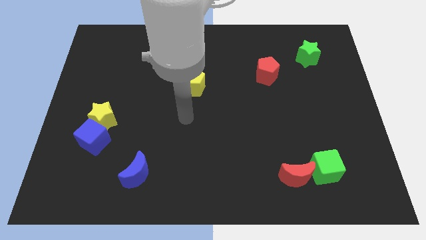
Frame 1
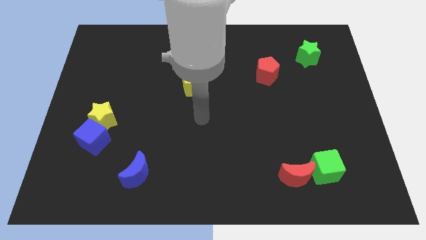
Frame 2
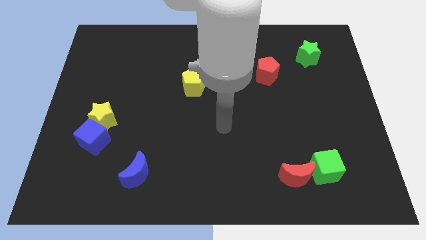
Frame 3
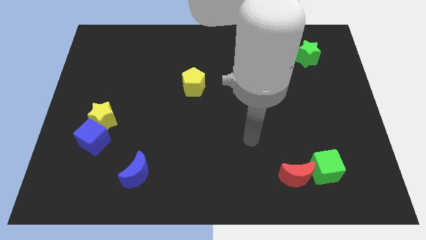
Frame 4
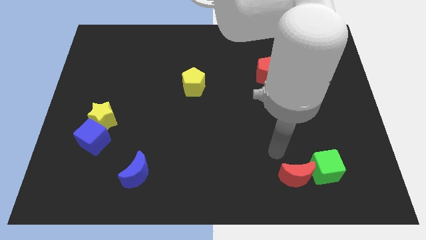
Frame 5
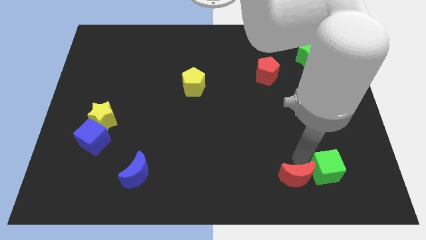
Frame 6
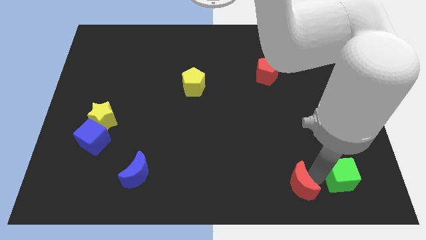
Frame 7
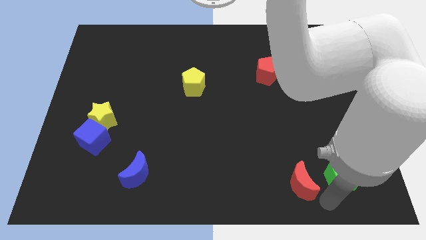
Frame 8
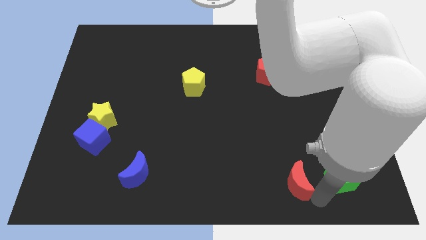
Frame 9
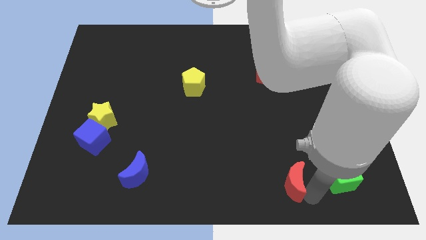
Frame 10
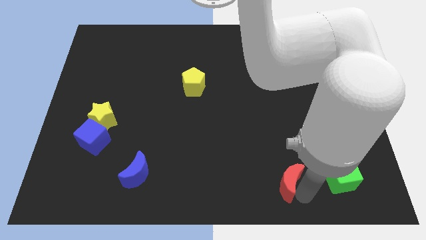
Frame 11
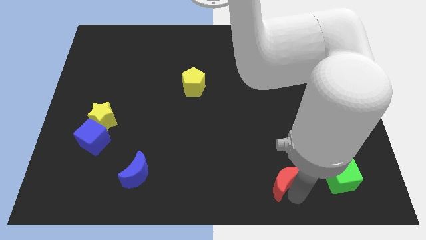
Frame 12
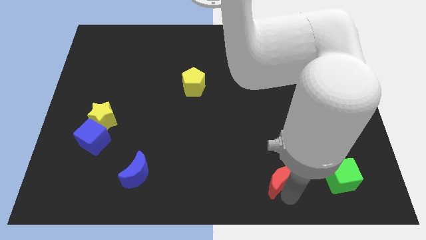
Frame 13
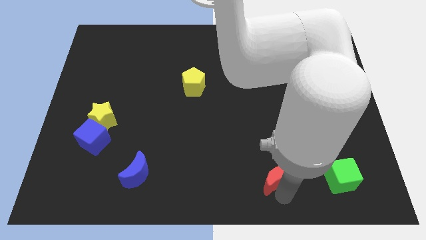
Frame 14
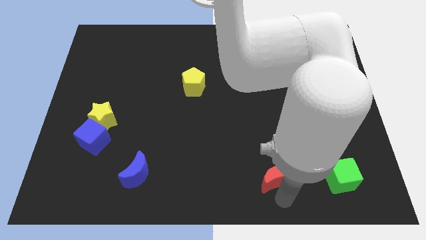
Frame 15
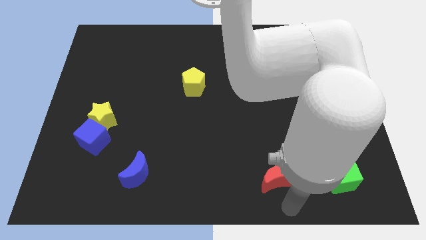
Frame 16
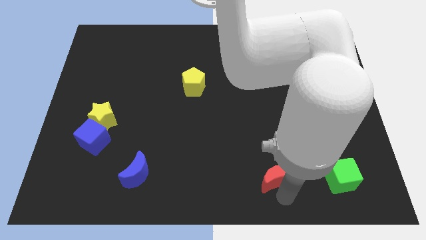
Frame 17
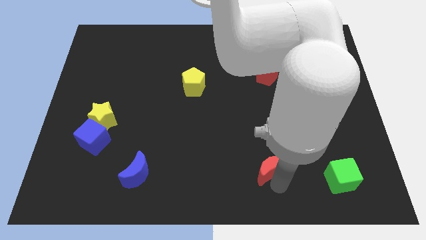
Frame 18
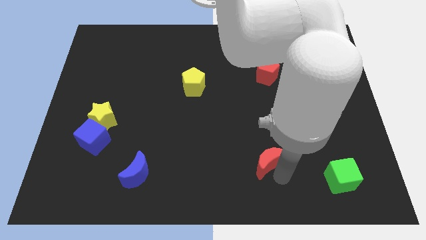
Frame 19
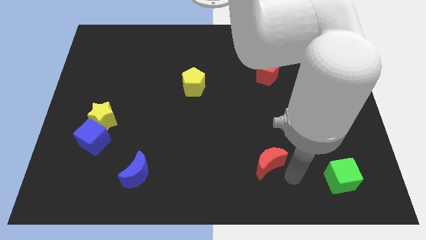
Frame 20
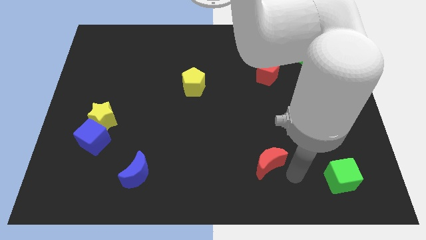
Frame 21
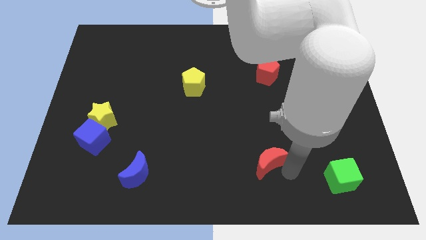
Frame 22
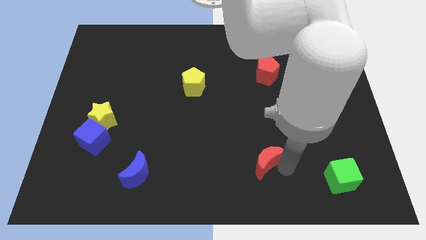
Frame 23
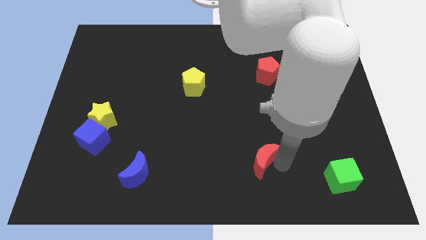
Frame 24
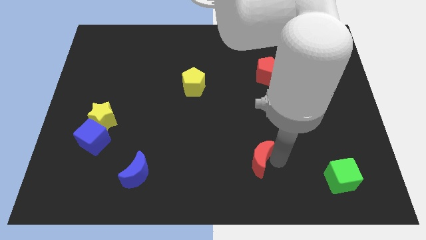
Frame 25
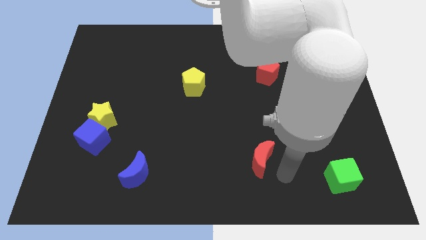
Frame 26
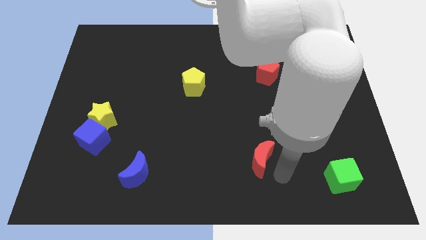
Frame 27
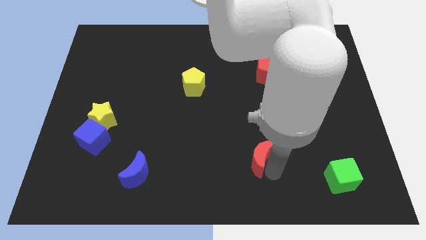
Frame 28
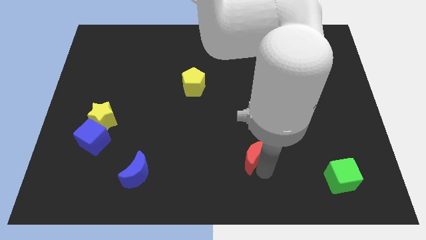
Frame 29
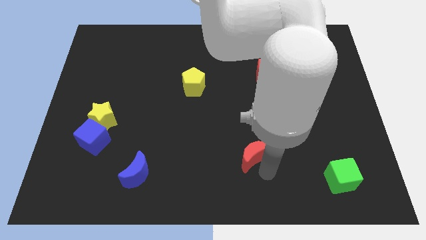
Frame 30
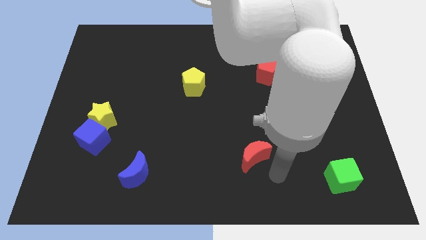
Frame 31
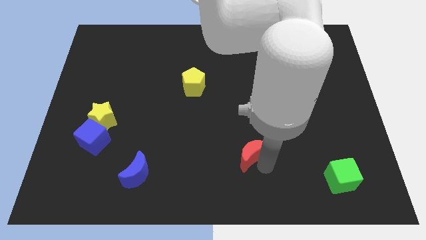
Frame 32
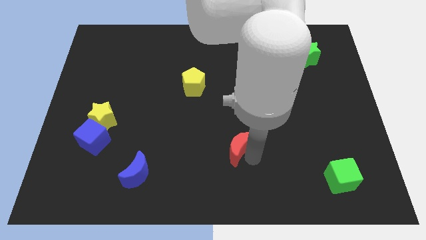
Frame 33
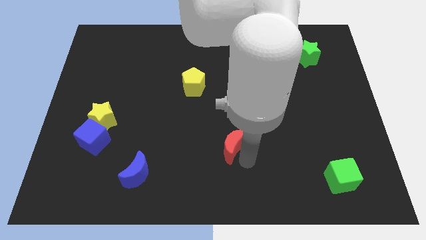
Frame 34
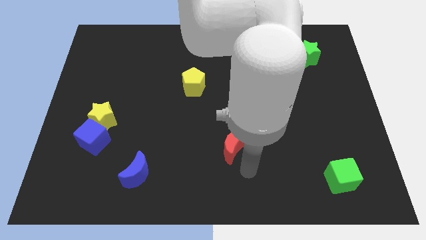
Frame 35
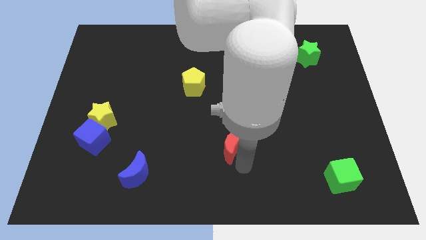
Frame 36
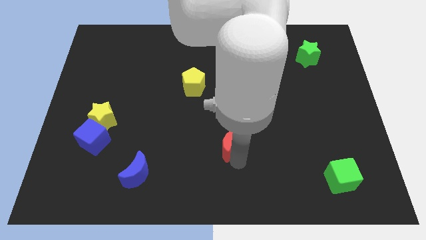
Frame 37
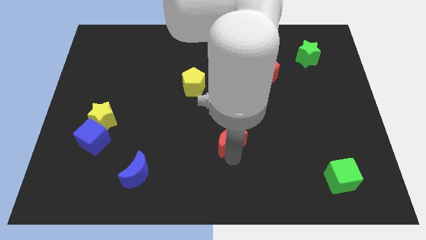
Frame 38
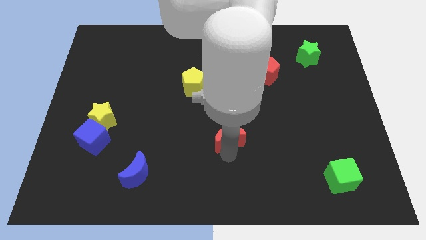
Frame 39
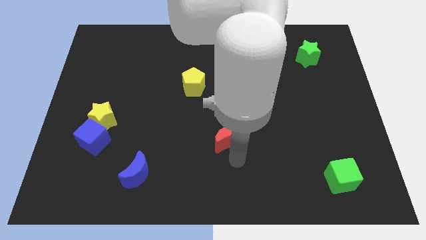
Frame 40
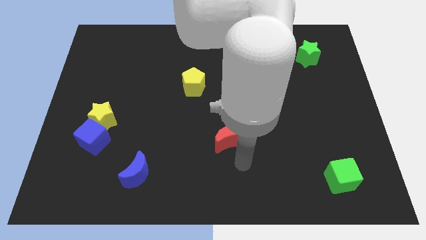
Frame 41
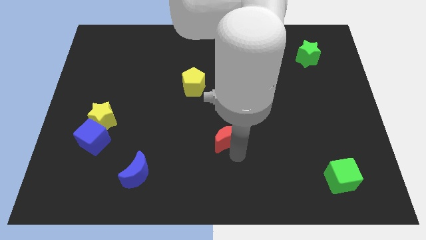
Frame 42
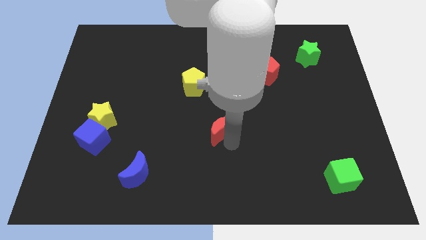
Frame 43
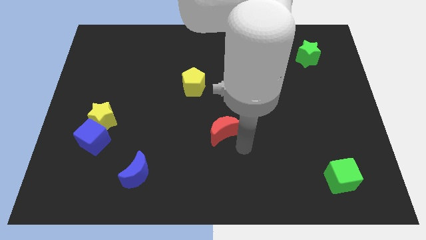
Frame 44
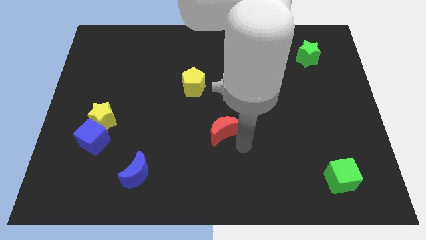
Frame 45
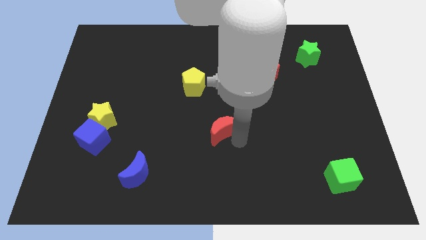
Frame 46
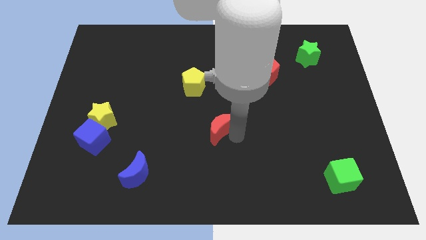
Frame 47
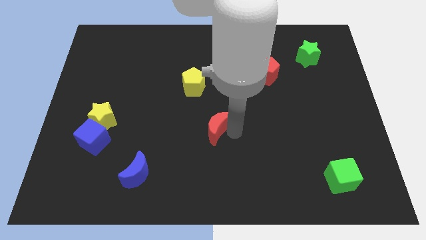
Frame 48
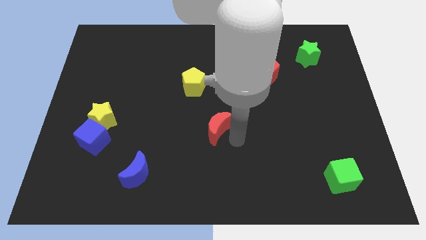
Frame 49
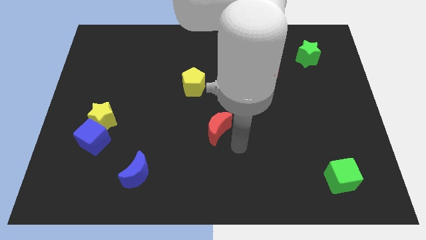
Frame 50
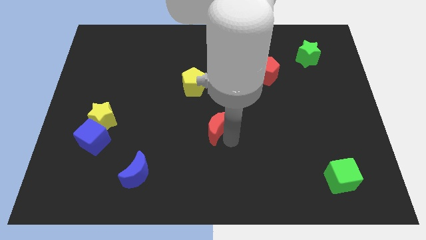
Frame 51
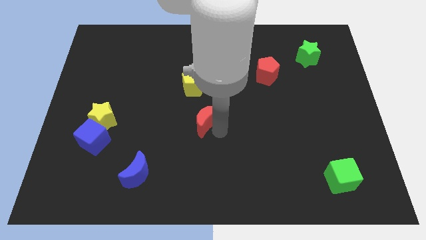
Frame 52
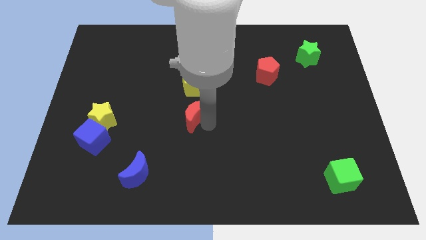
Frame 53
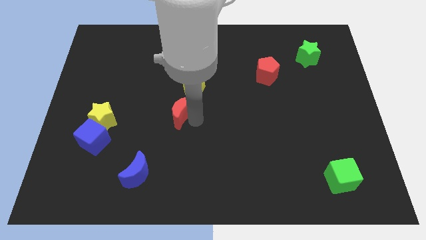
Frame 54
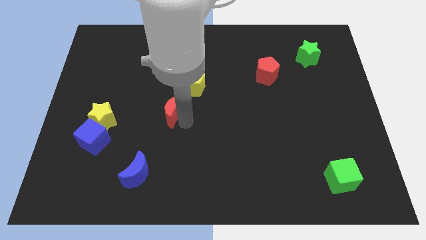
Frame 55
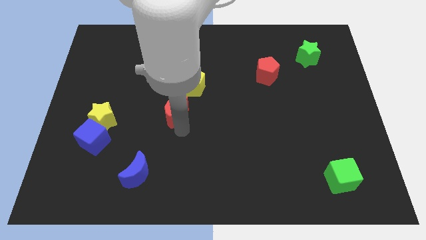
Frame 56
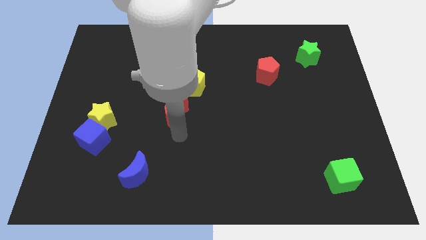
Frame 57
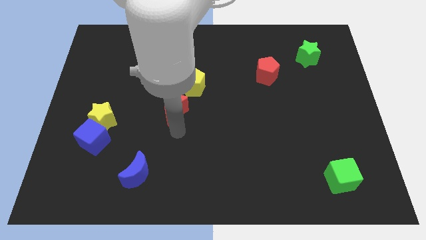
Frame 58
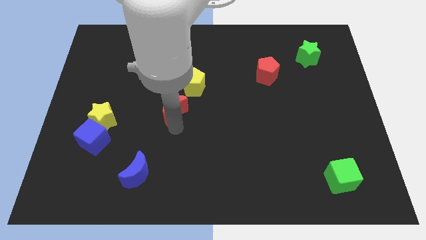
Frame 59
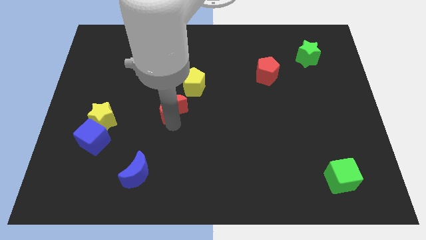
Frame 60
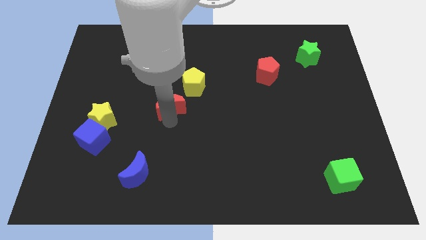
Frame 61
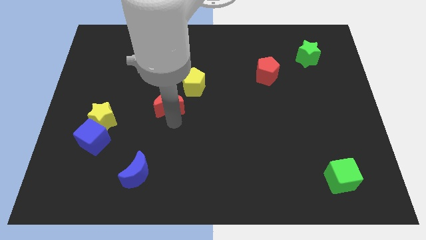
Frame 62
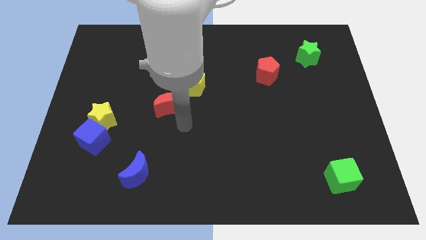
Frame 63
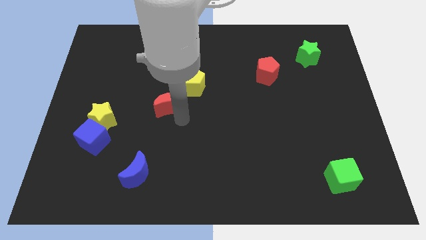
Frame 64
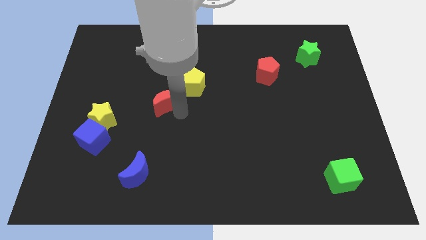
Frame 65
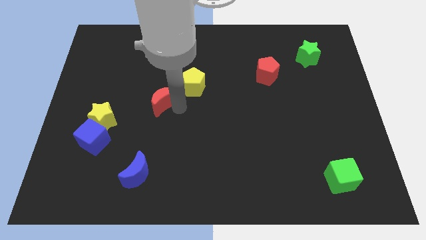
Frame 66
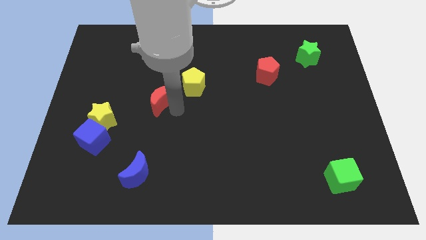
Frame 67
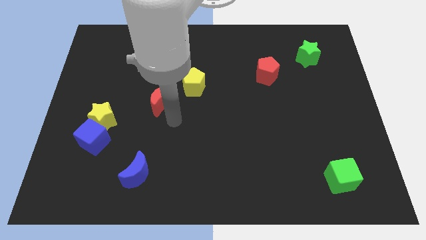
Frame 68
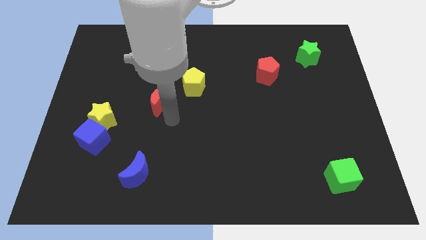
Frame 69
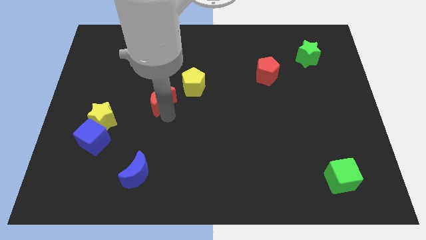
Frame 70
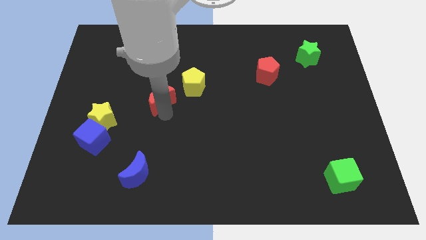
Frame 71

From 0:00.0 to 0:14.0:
put the red moon to the left of the yellow pentagon
